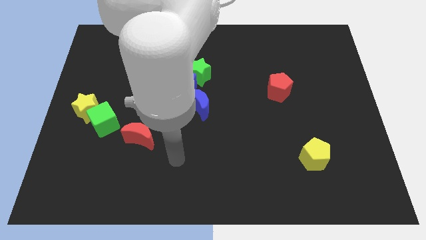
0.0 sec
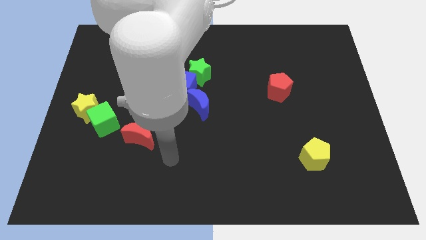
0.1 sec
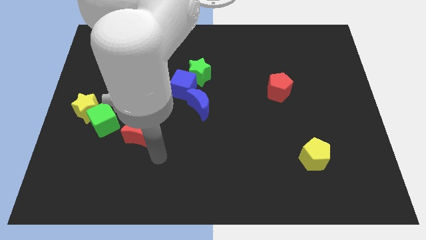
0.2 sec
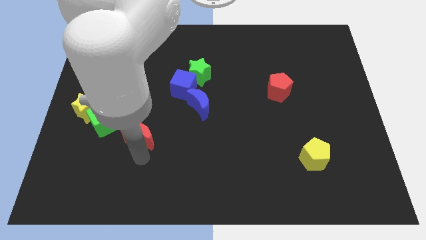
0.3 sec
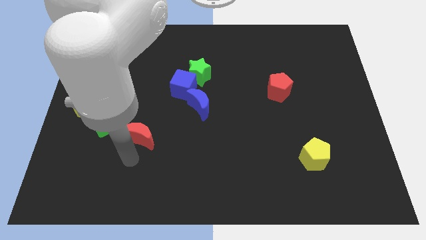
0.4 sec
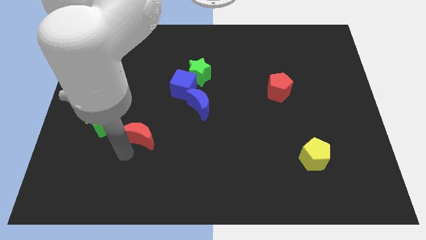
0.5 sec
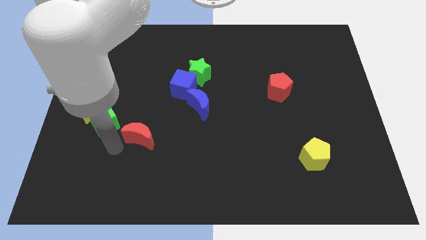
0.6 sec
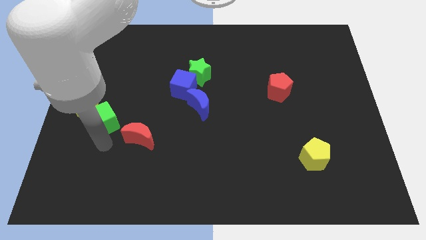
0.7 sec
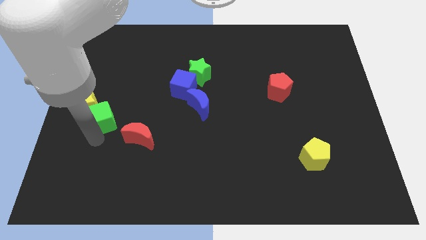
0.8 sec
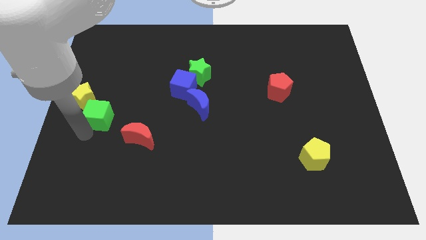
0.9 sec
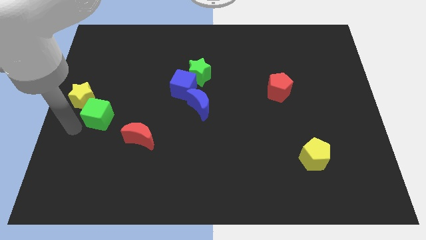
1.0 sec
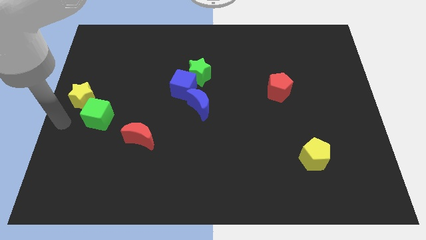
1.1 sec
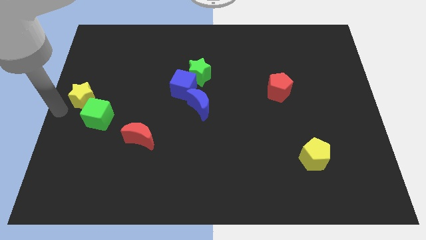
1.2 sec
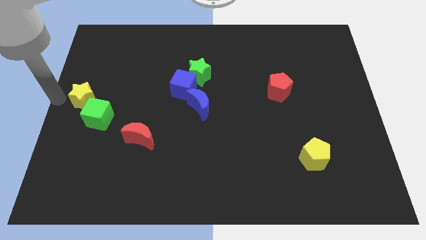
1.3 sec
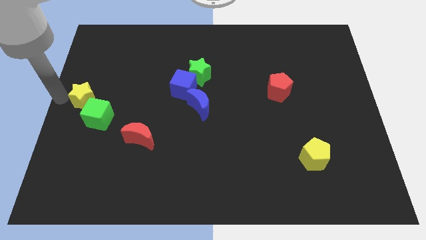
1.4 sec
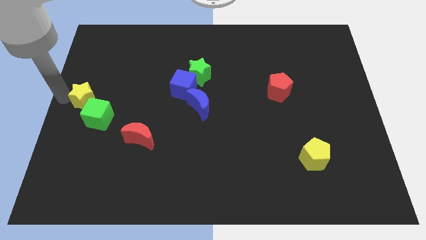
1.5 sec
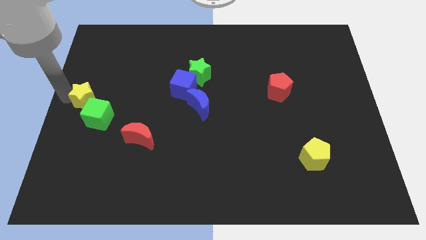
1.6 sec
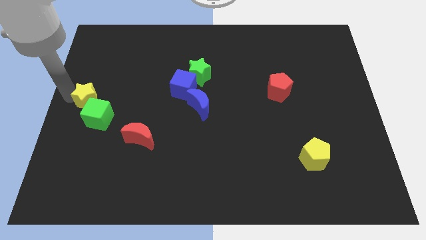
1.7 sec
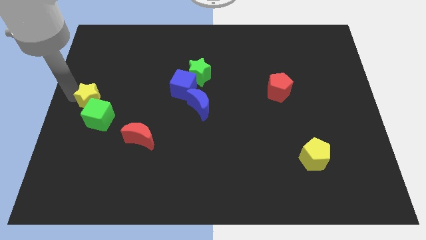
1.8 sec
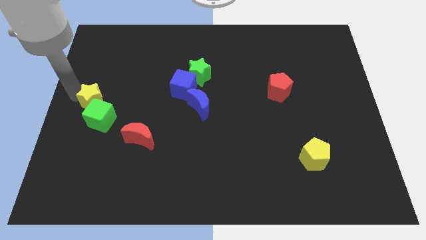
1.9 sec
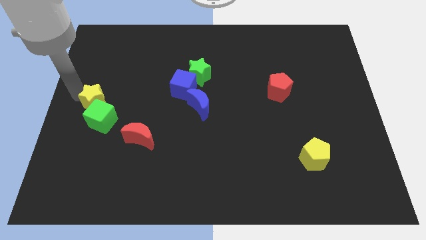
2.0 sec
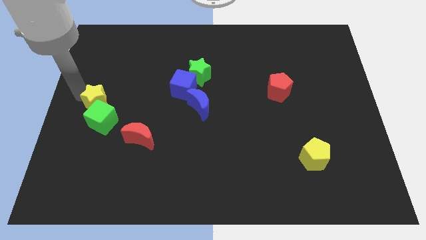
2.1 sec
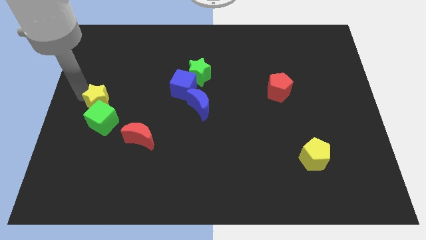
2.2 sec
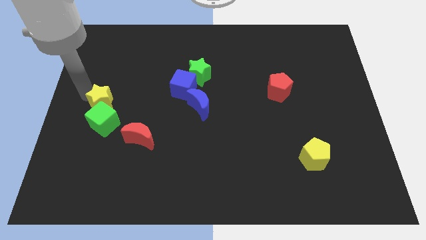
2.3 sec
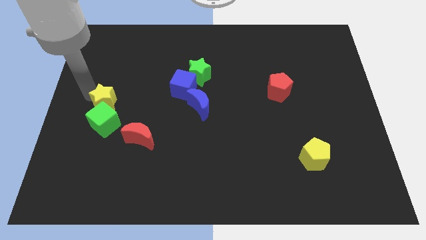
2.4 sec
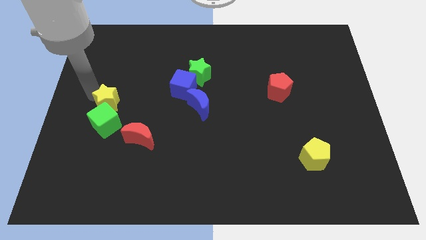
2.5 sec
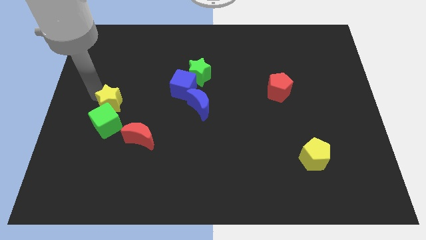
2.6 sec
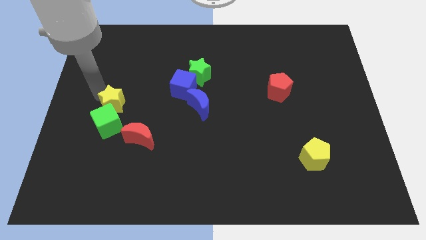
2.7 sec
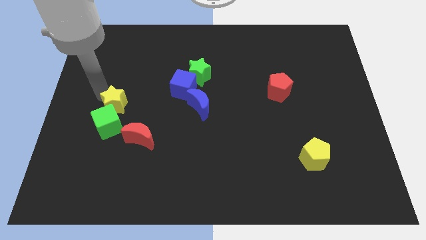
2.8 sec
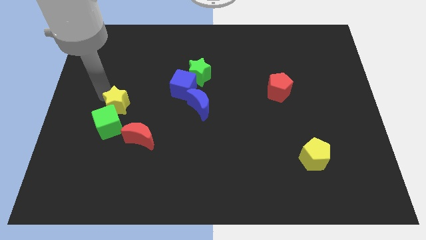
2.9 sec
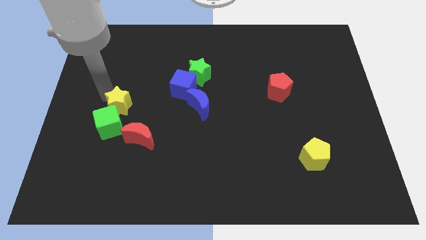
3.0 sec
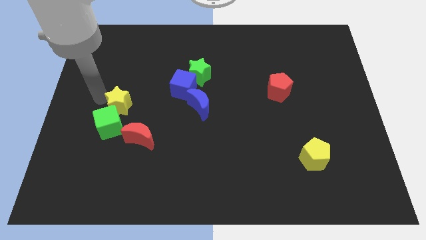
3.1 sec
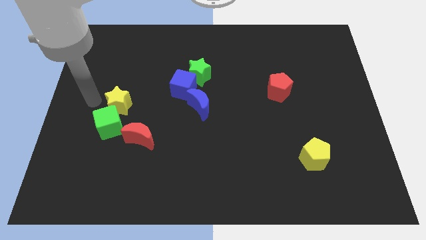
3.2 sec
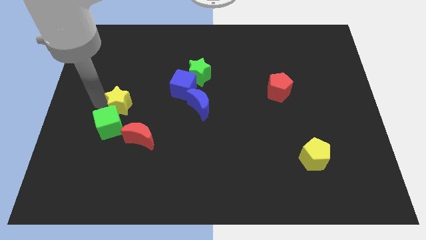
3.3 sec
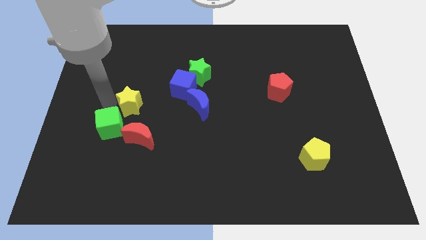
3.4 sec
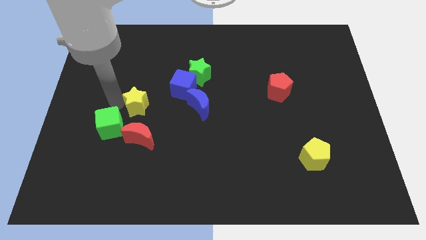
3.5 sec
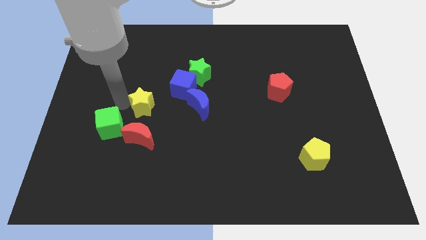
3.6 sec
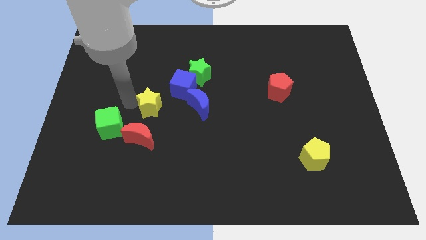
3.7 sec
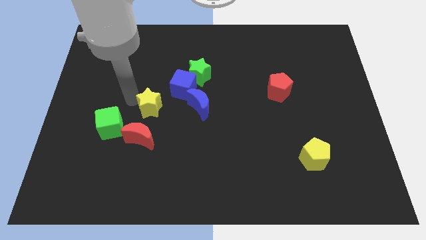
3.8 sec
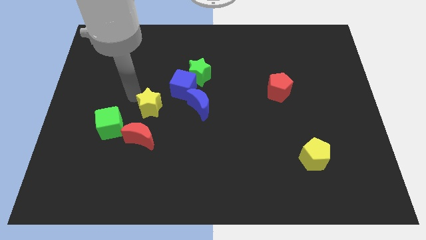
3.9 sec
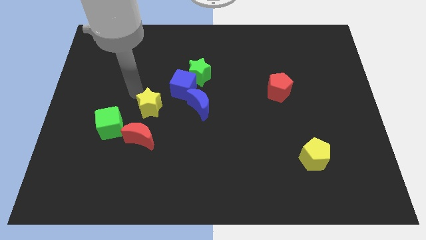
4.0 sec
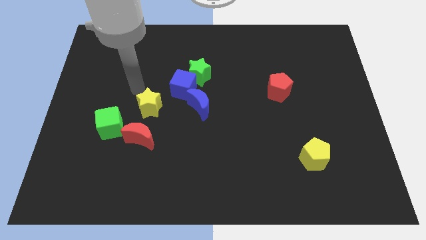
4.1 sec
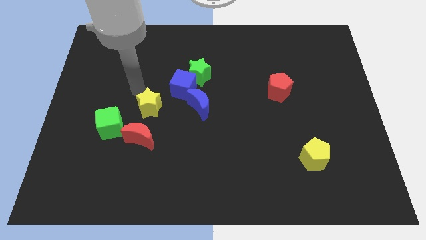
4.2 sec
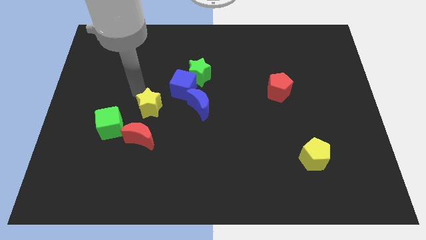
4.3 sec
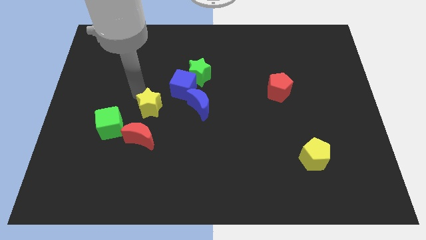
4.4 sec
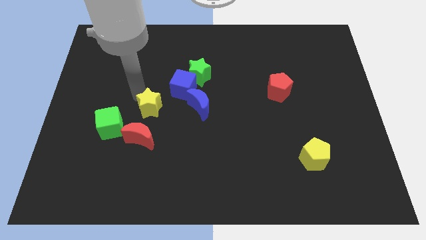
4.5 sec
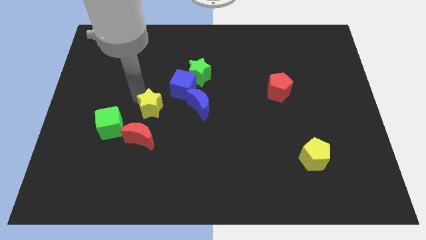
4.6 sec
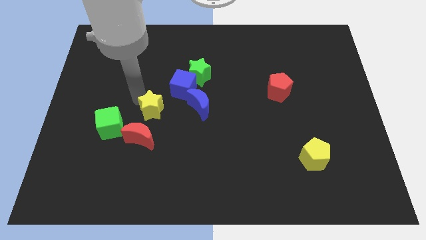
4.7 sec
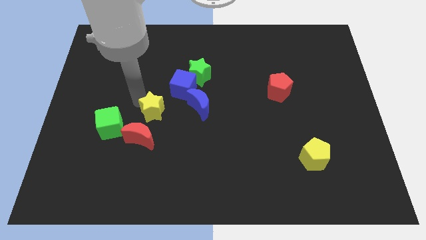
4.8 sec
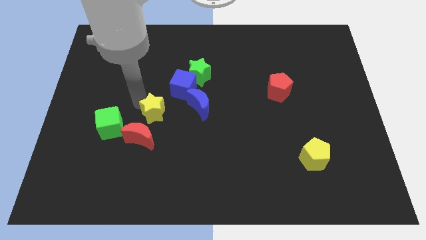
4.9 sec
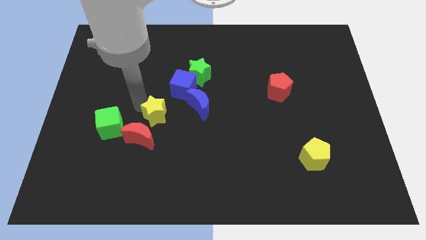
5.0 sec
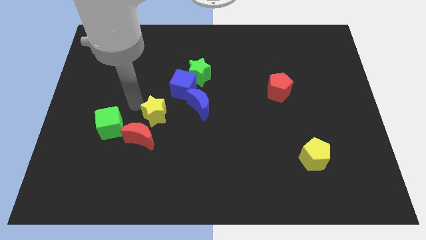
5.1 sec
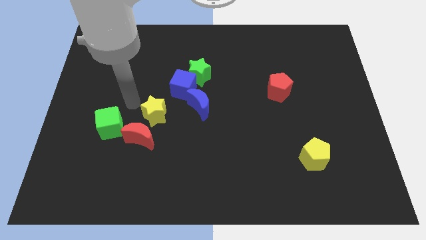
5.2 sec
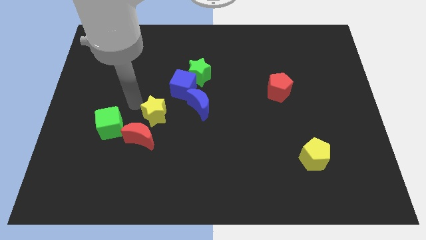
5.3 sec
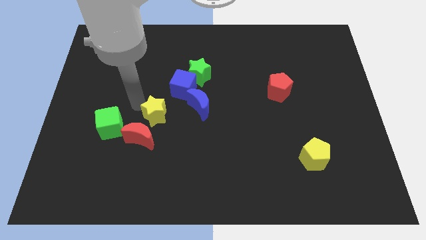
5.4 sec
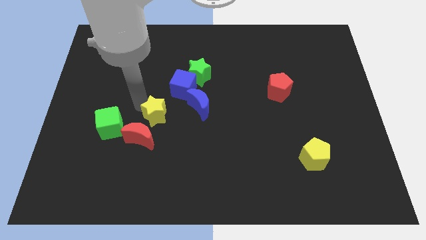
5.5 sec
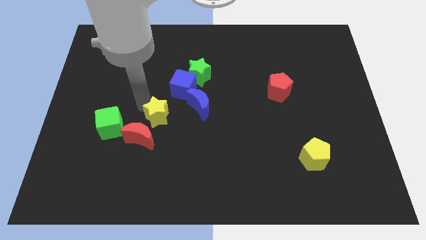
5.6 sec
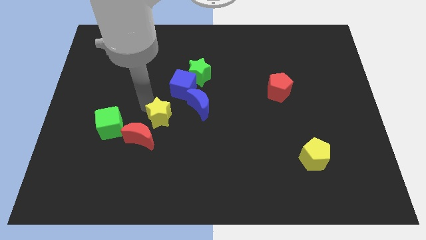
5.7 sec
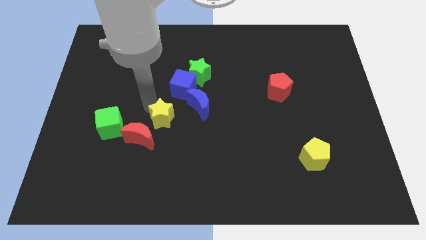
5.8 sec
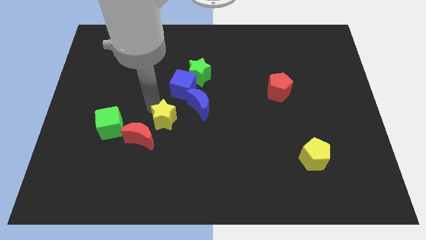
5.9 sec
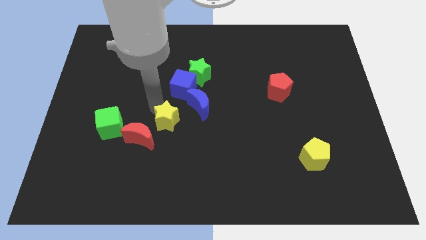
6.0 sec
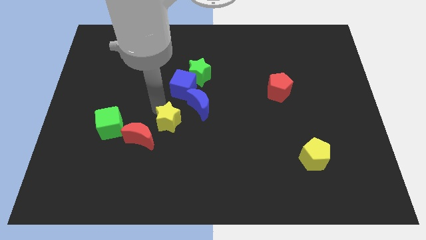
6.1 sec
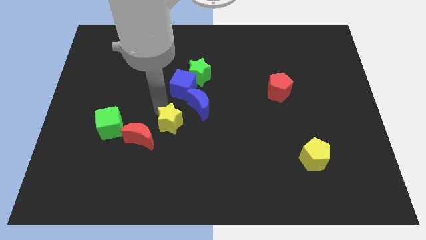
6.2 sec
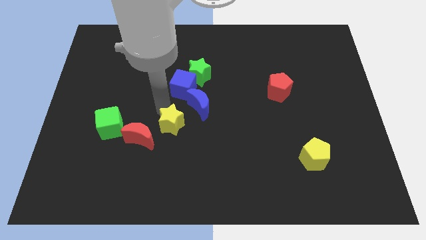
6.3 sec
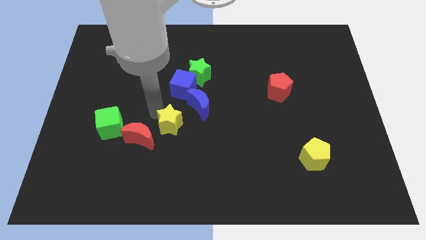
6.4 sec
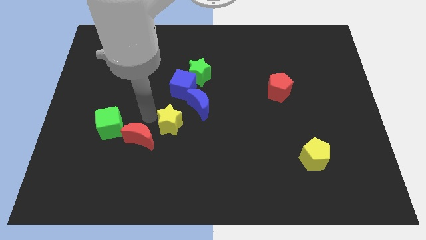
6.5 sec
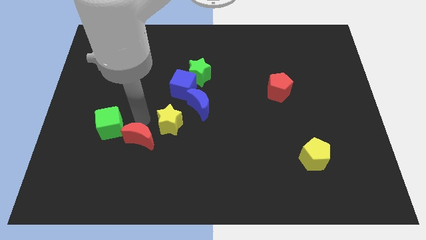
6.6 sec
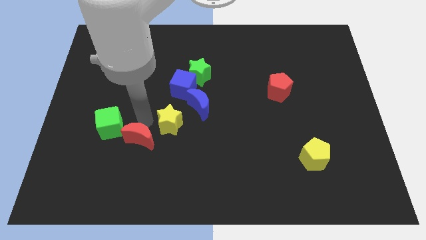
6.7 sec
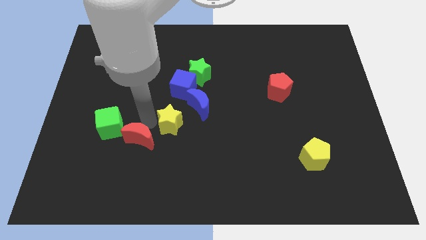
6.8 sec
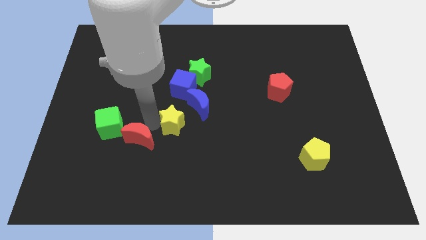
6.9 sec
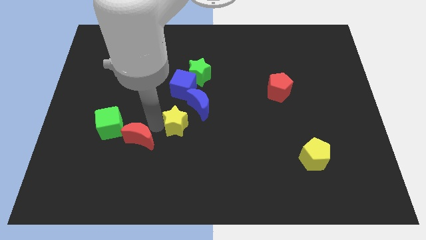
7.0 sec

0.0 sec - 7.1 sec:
slide the yellow star right

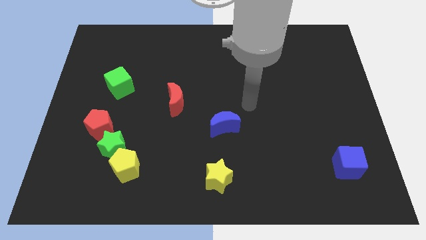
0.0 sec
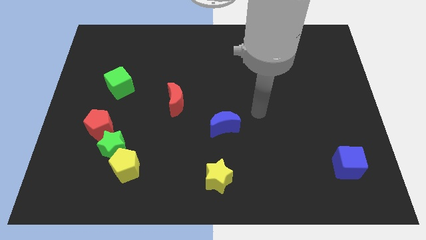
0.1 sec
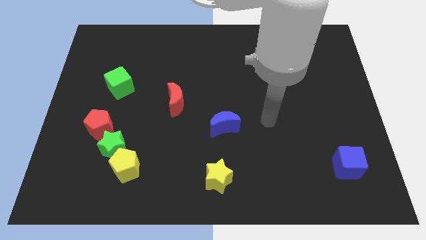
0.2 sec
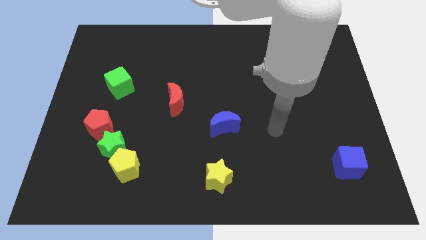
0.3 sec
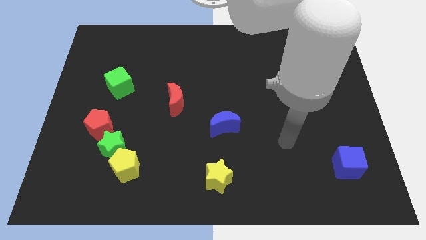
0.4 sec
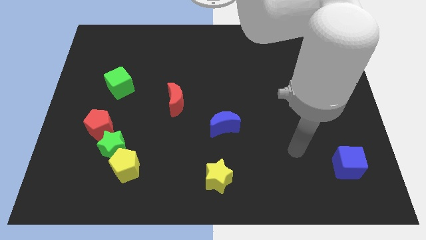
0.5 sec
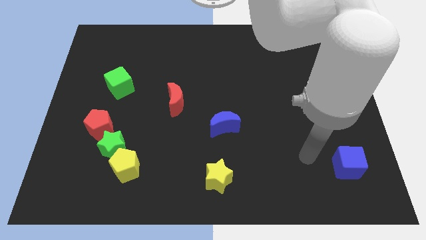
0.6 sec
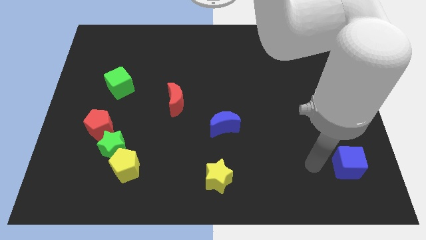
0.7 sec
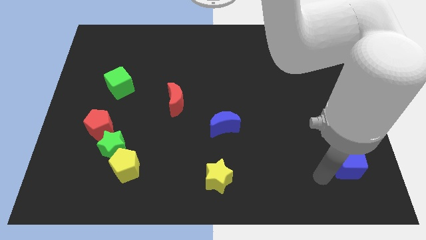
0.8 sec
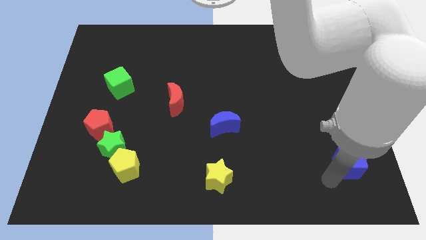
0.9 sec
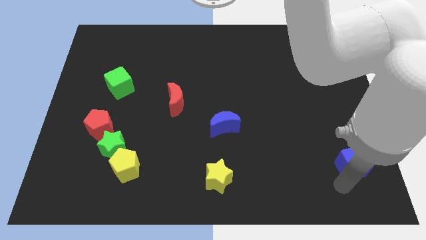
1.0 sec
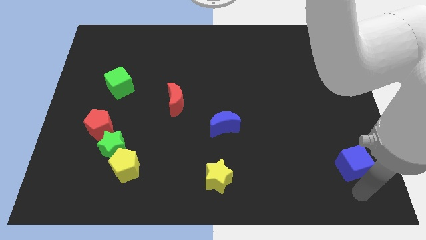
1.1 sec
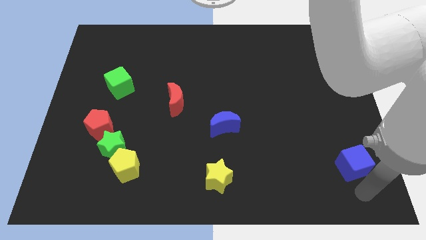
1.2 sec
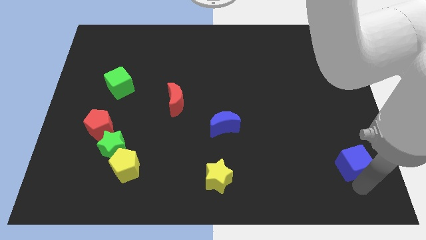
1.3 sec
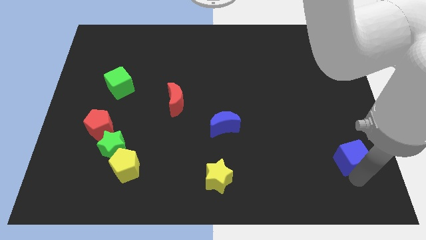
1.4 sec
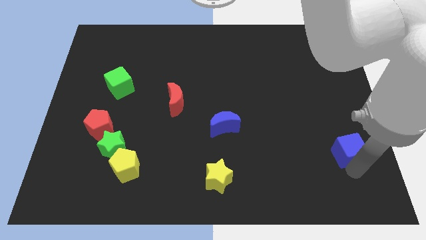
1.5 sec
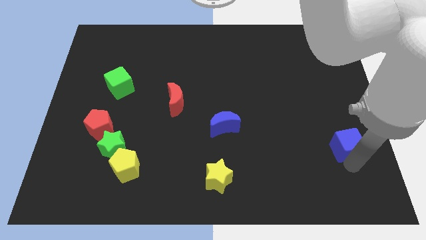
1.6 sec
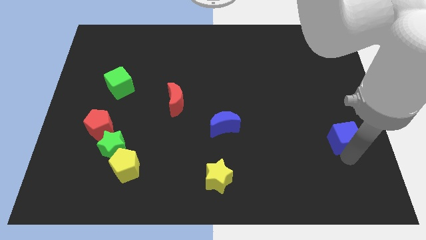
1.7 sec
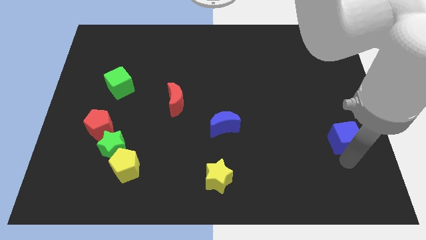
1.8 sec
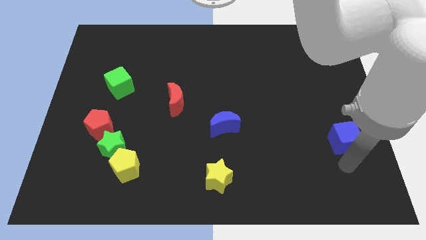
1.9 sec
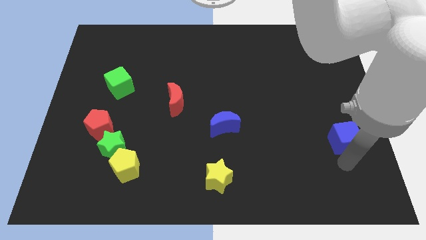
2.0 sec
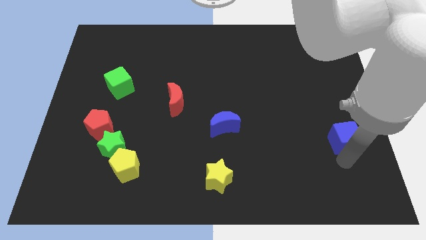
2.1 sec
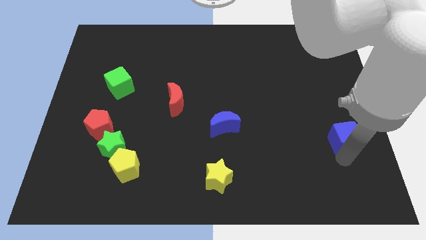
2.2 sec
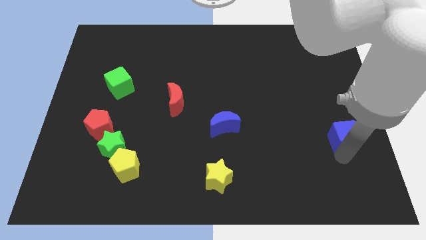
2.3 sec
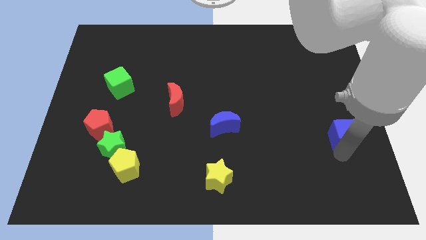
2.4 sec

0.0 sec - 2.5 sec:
slightly push the blue cube upwards
